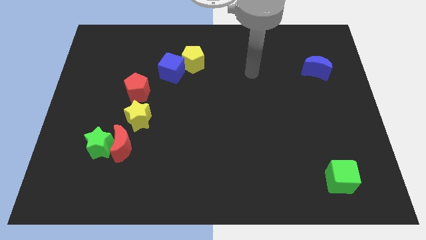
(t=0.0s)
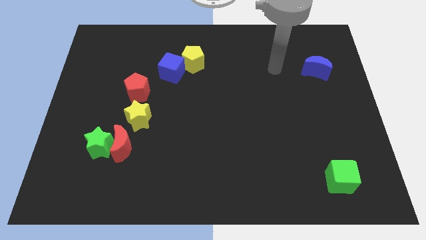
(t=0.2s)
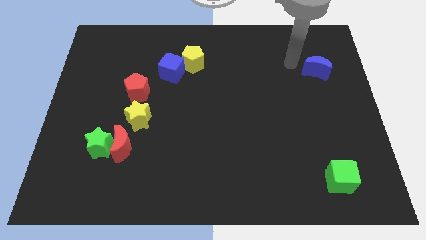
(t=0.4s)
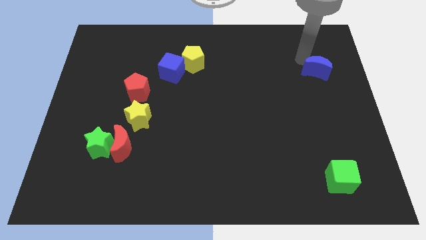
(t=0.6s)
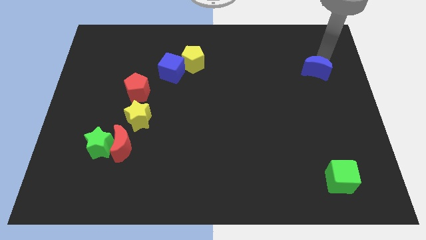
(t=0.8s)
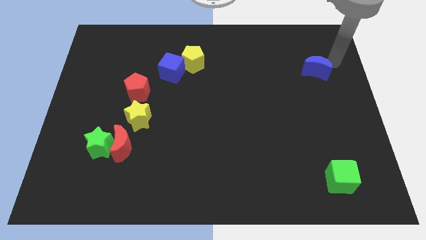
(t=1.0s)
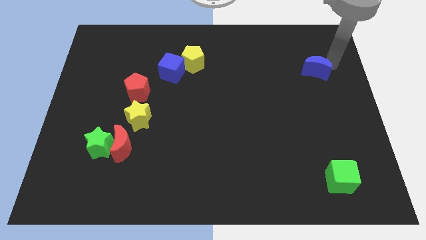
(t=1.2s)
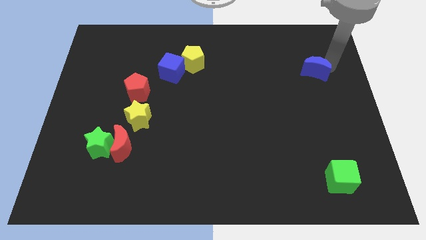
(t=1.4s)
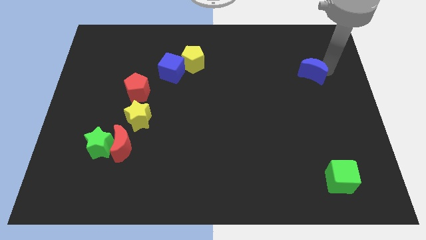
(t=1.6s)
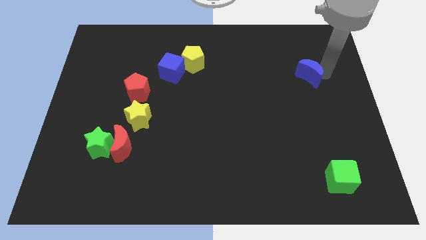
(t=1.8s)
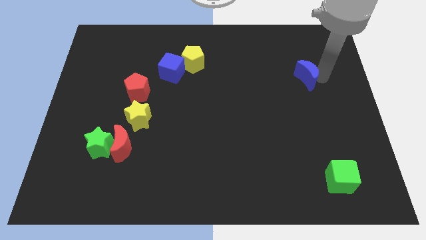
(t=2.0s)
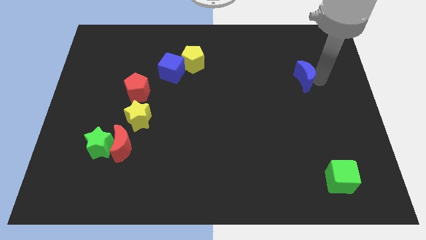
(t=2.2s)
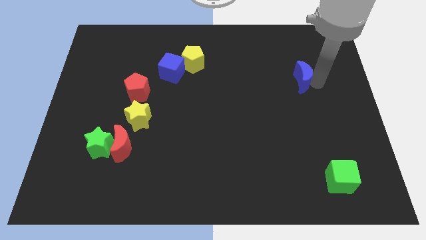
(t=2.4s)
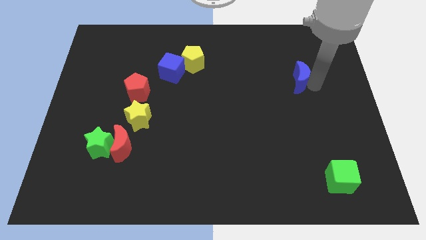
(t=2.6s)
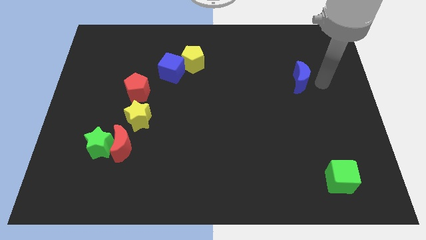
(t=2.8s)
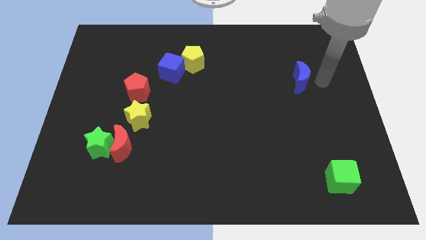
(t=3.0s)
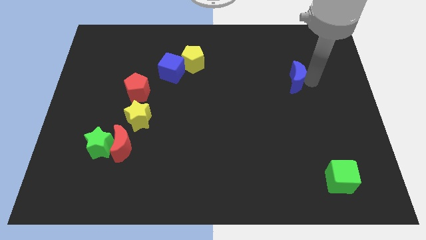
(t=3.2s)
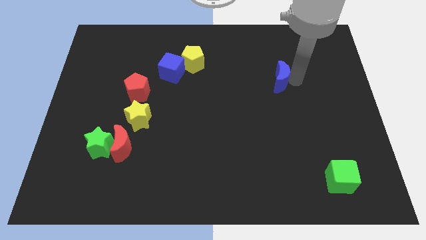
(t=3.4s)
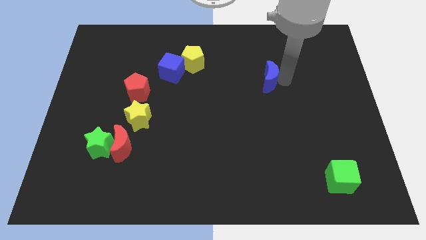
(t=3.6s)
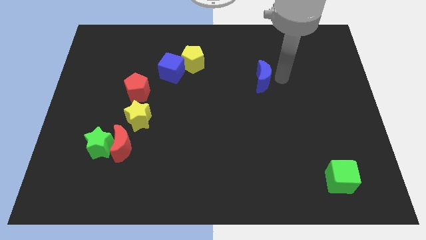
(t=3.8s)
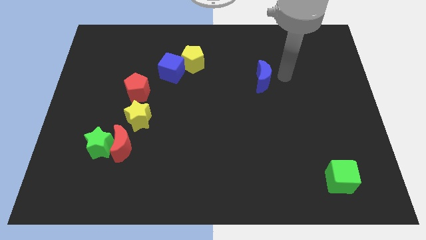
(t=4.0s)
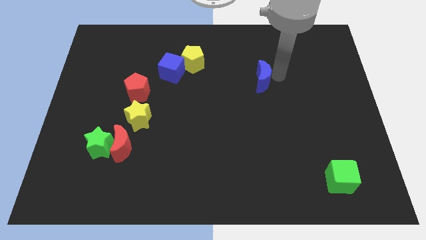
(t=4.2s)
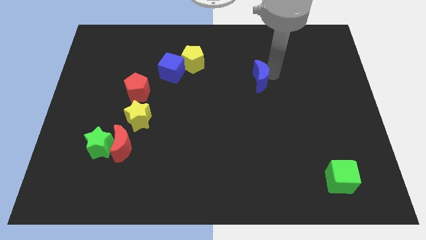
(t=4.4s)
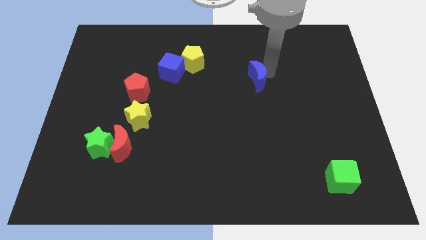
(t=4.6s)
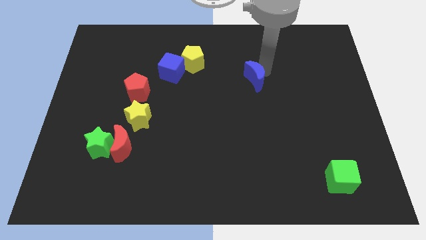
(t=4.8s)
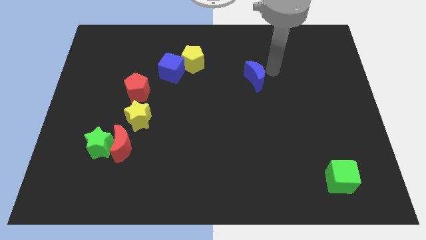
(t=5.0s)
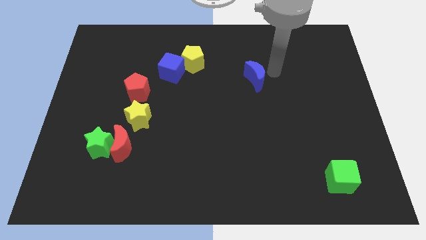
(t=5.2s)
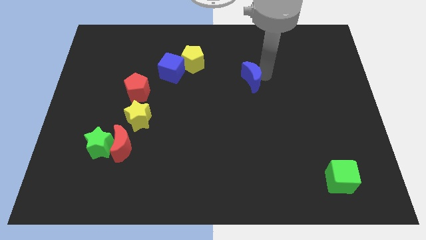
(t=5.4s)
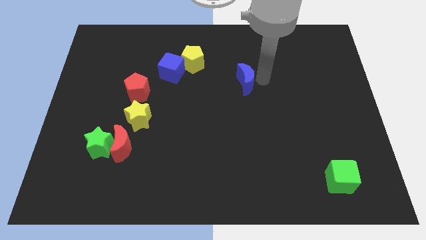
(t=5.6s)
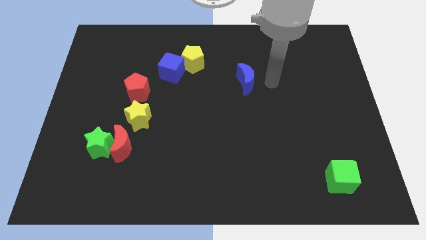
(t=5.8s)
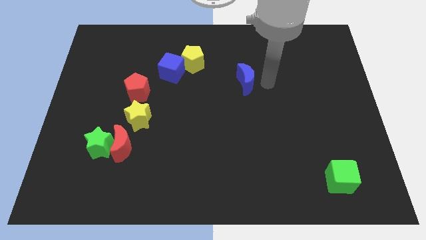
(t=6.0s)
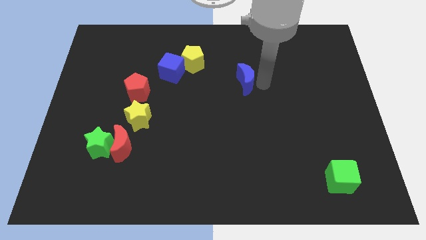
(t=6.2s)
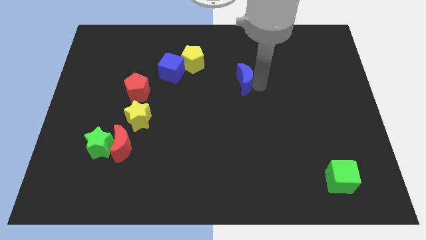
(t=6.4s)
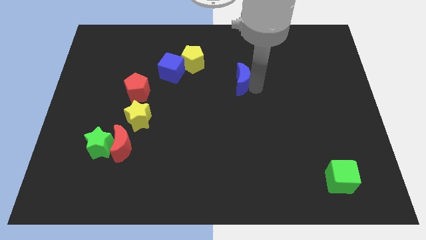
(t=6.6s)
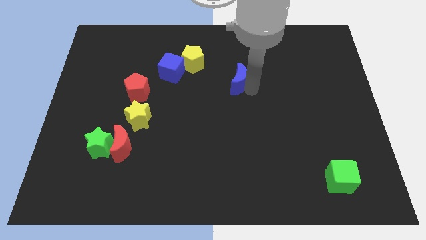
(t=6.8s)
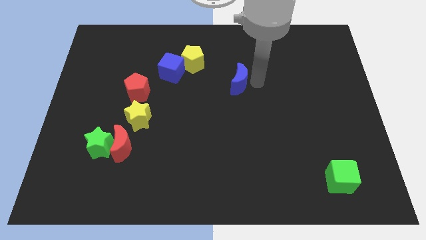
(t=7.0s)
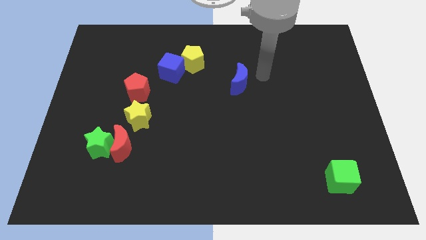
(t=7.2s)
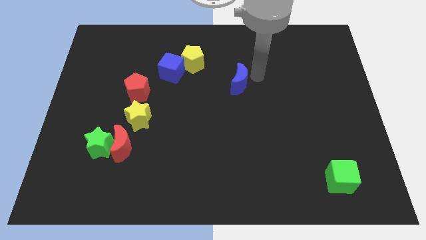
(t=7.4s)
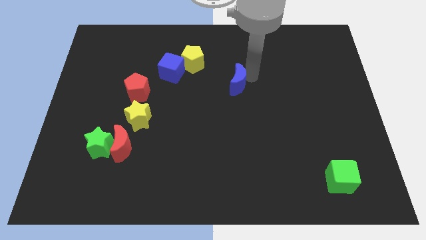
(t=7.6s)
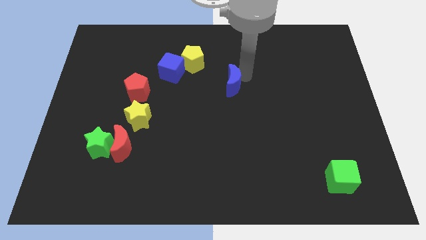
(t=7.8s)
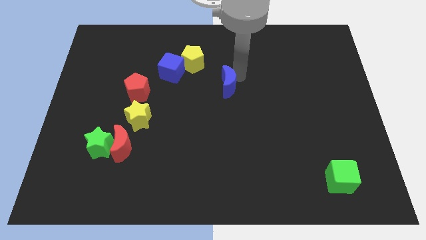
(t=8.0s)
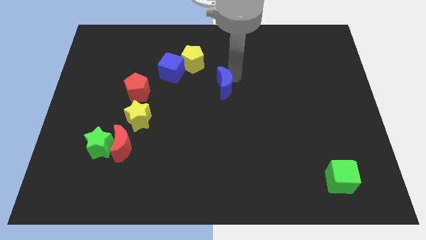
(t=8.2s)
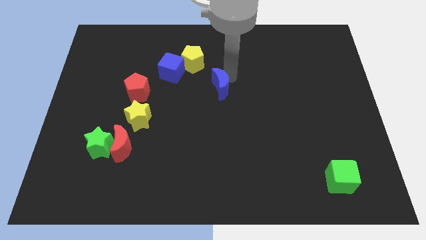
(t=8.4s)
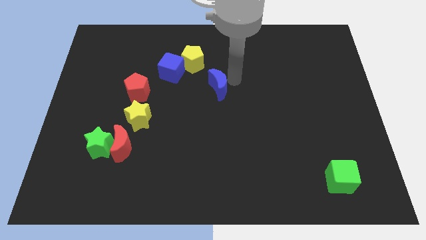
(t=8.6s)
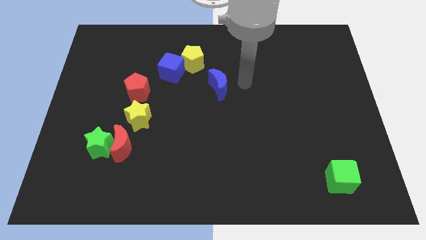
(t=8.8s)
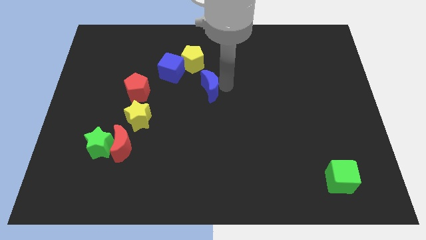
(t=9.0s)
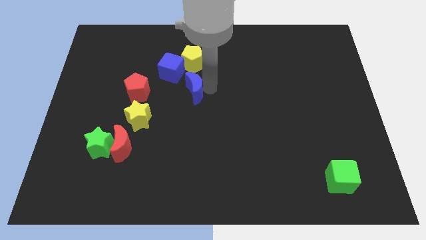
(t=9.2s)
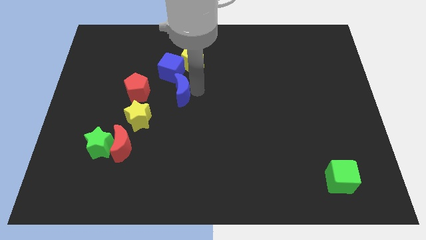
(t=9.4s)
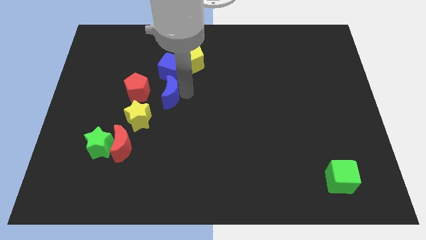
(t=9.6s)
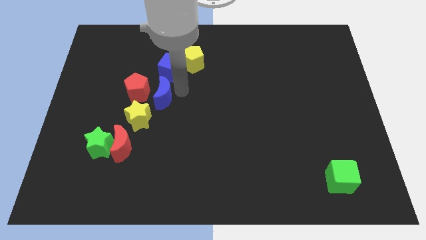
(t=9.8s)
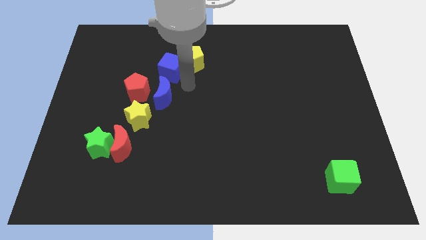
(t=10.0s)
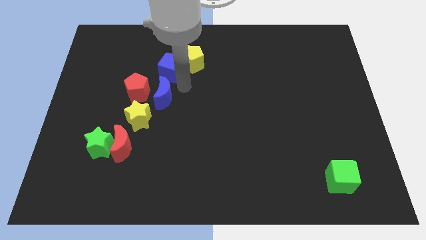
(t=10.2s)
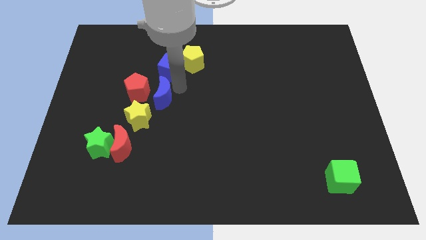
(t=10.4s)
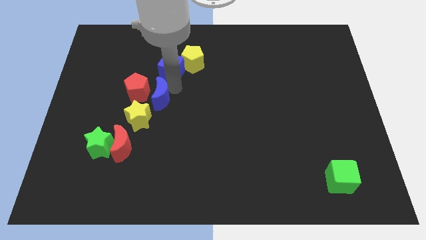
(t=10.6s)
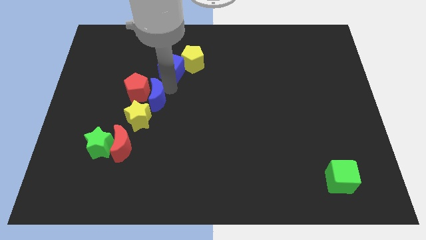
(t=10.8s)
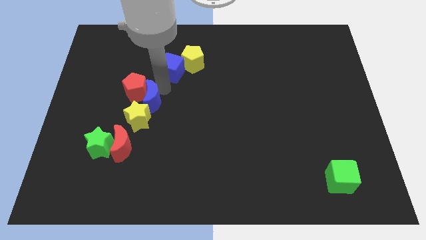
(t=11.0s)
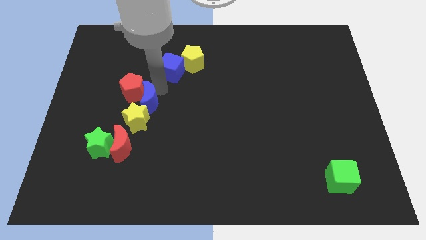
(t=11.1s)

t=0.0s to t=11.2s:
slide the blue moon above the red moon

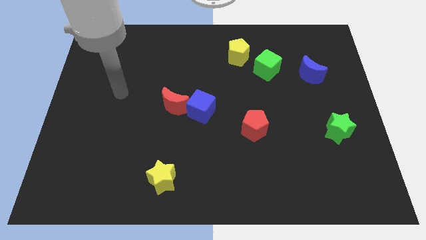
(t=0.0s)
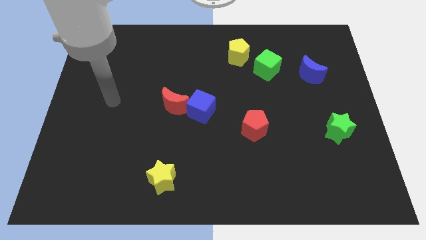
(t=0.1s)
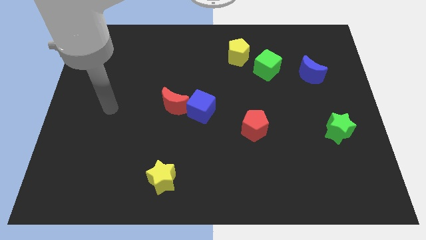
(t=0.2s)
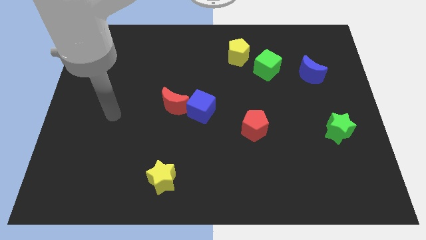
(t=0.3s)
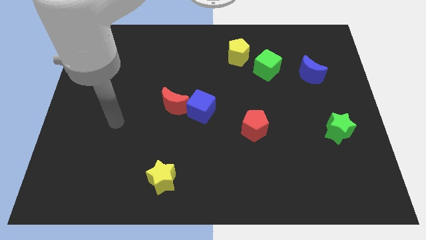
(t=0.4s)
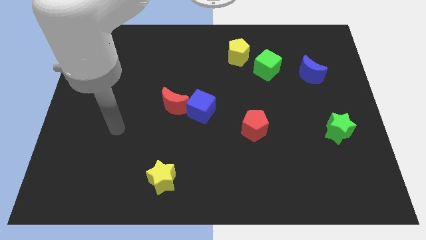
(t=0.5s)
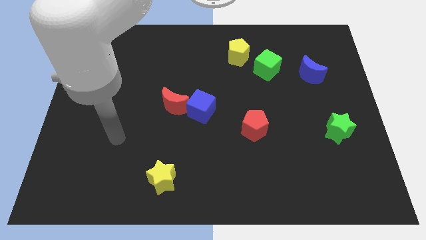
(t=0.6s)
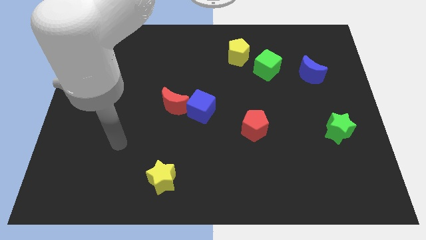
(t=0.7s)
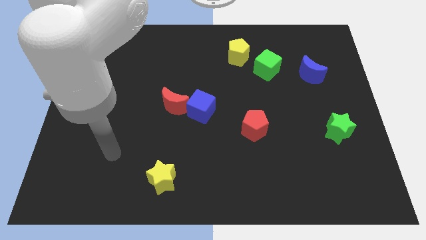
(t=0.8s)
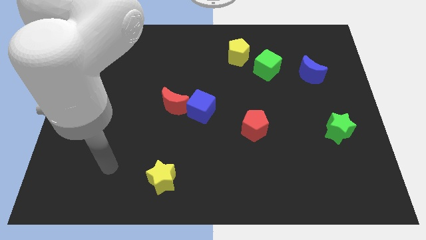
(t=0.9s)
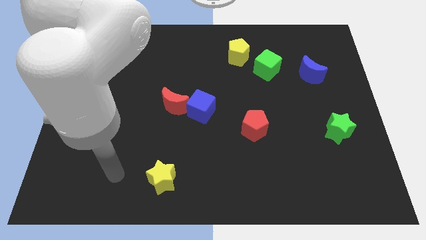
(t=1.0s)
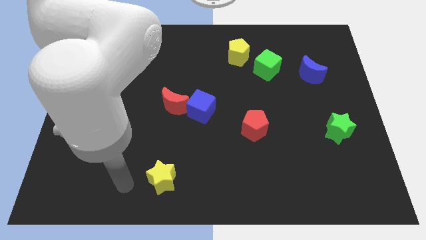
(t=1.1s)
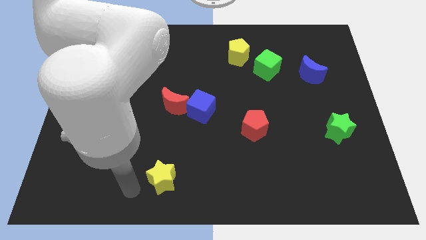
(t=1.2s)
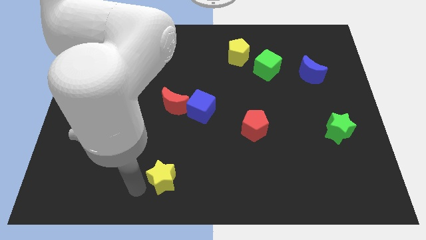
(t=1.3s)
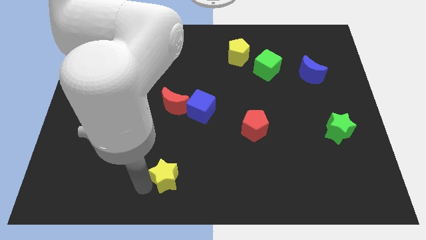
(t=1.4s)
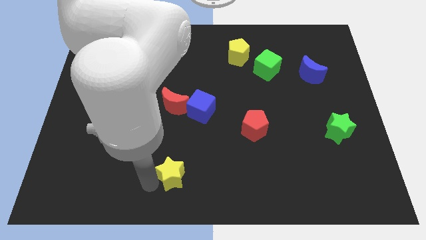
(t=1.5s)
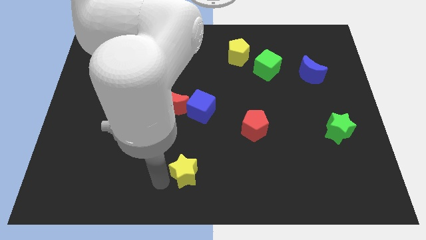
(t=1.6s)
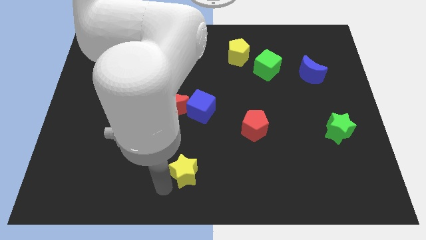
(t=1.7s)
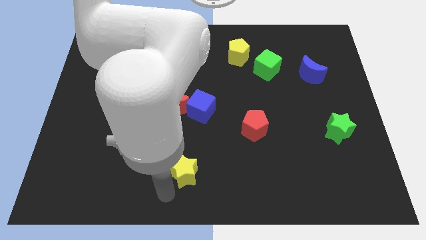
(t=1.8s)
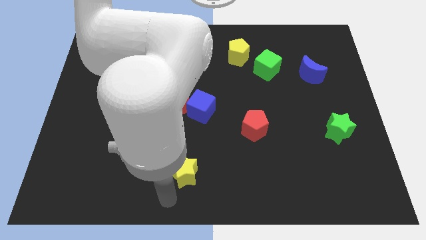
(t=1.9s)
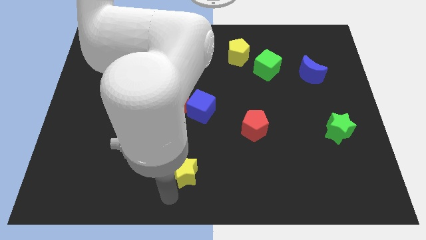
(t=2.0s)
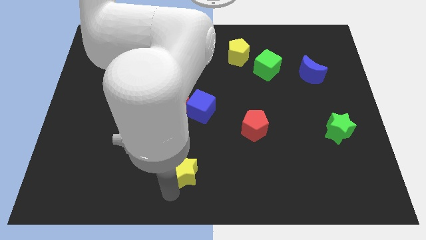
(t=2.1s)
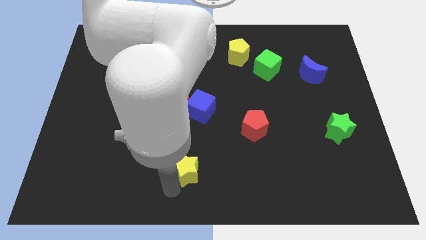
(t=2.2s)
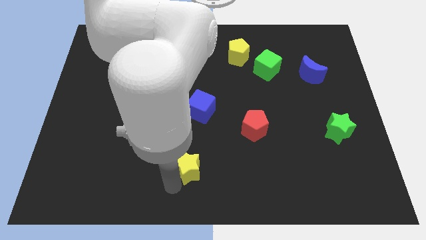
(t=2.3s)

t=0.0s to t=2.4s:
move the yellow star below the blue cube
